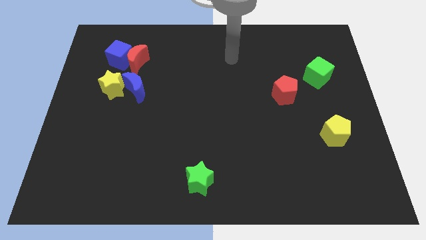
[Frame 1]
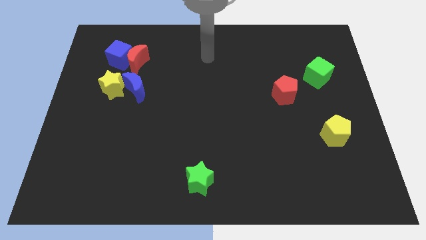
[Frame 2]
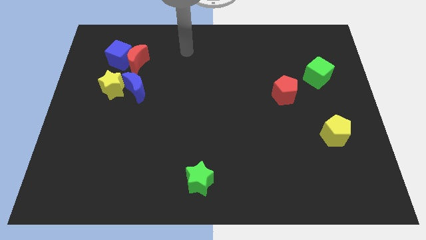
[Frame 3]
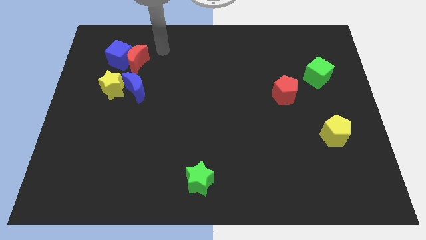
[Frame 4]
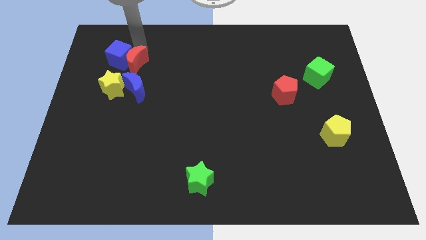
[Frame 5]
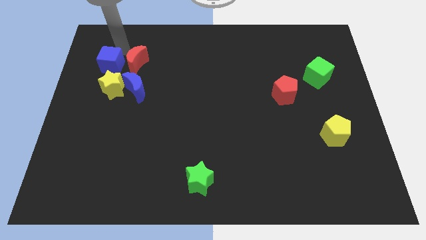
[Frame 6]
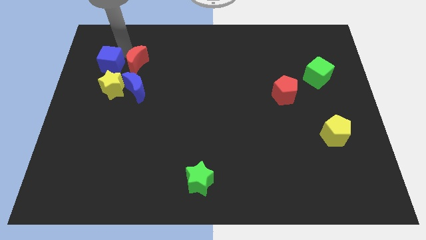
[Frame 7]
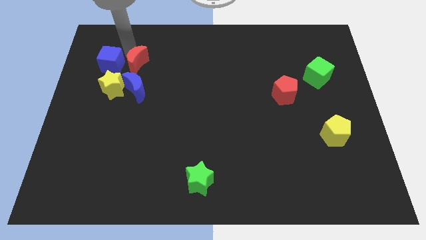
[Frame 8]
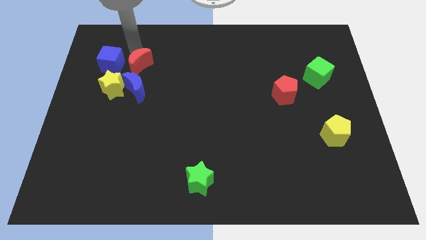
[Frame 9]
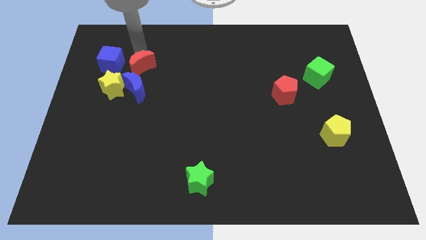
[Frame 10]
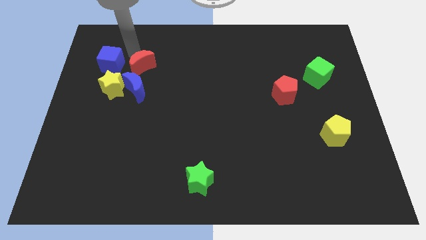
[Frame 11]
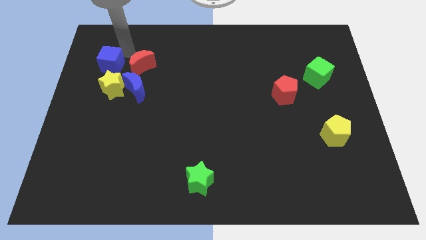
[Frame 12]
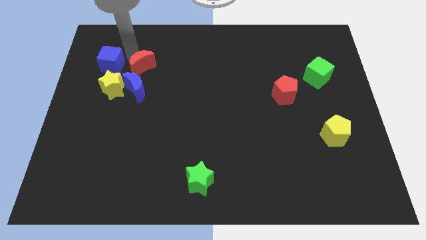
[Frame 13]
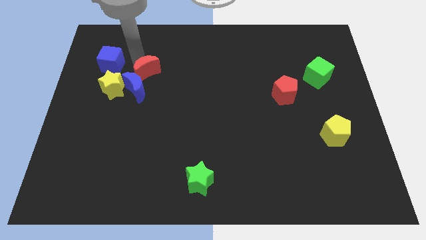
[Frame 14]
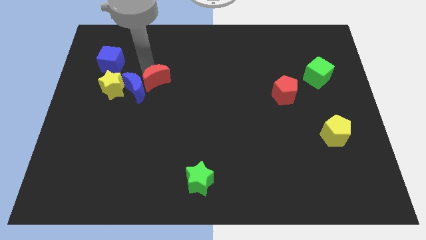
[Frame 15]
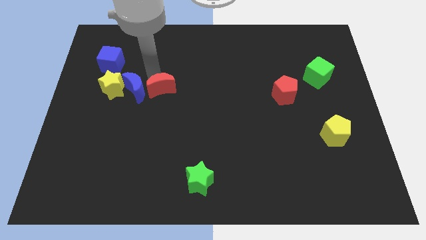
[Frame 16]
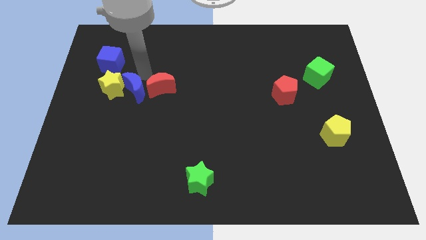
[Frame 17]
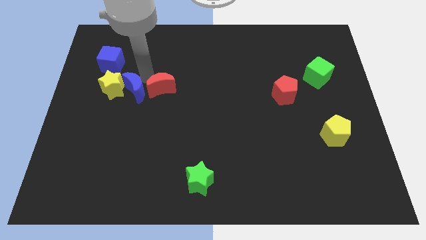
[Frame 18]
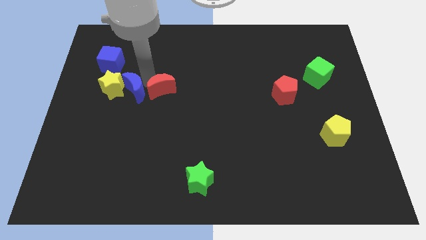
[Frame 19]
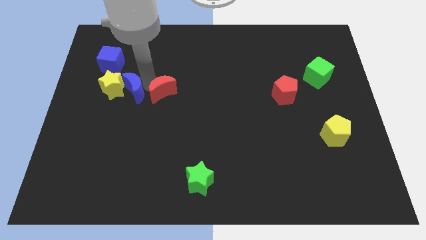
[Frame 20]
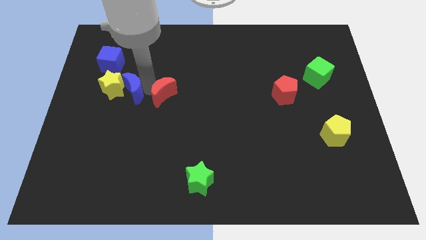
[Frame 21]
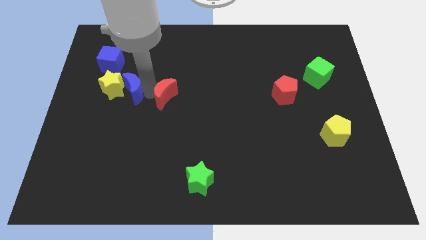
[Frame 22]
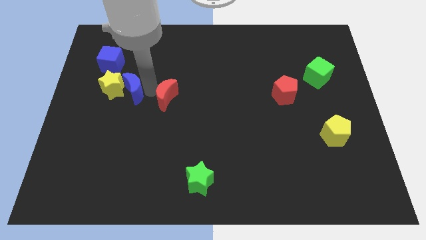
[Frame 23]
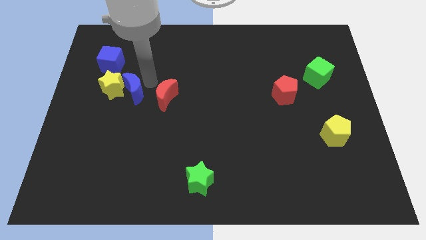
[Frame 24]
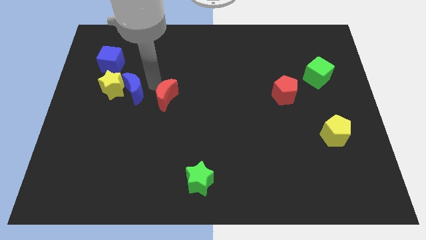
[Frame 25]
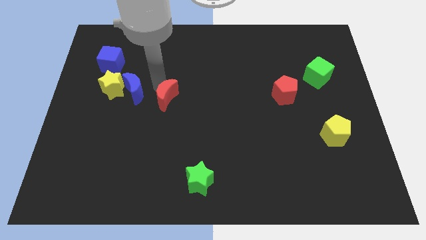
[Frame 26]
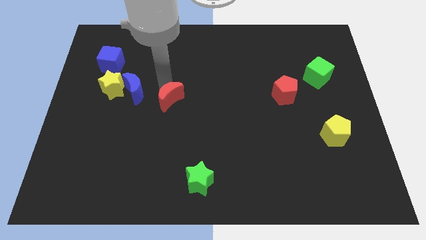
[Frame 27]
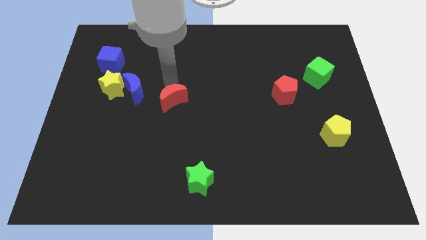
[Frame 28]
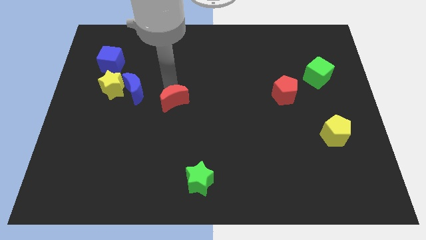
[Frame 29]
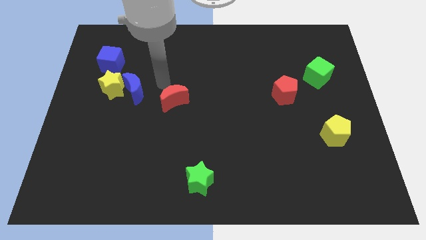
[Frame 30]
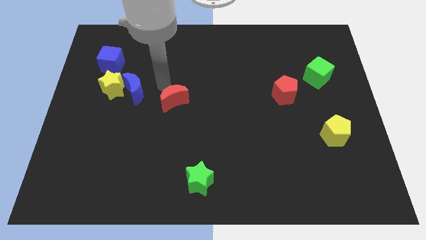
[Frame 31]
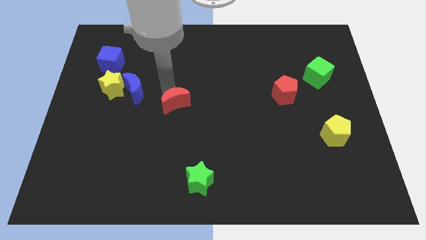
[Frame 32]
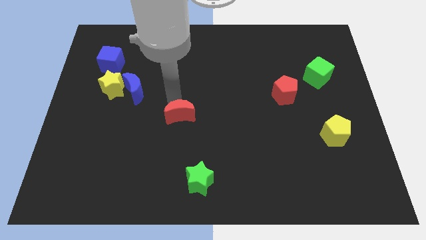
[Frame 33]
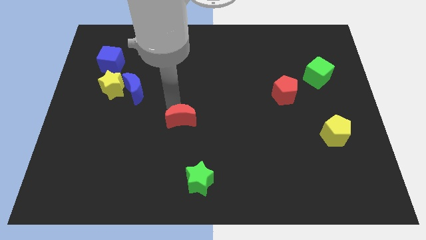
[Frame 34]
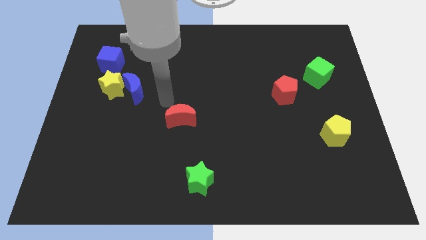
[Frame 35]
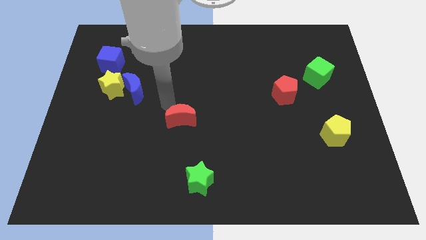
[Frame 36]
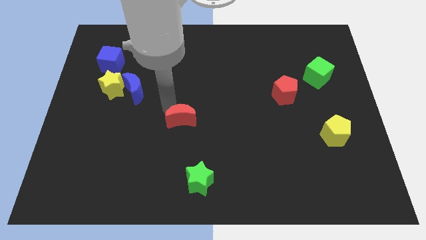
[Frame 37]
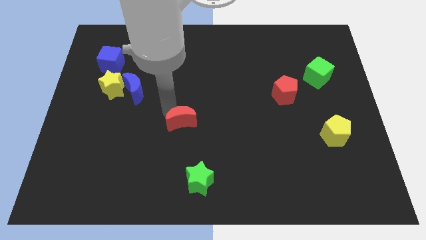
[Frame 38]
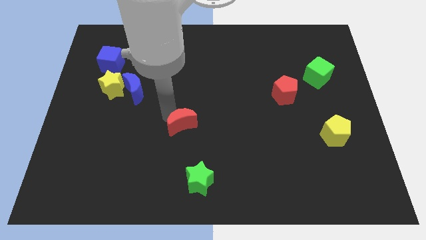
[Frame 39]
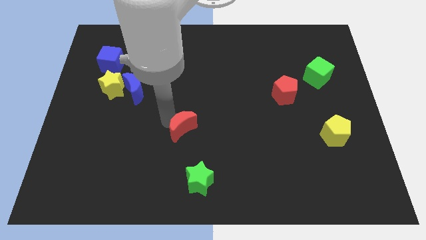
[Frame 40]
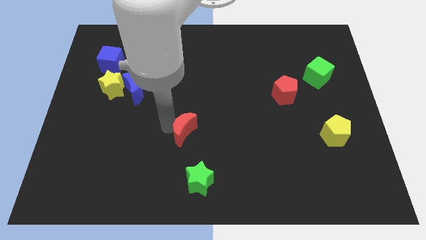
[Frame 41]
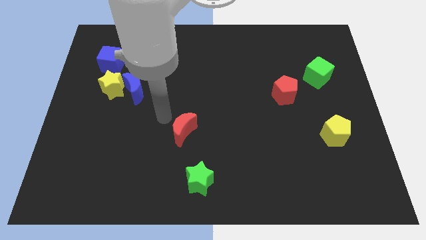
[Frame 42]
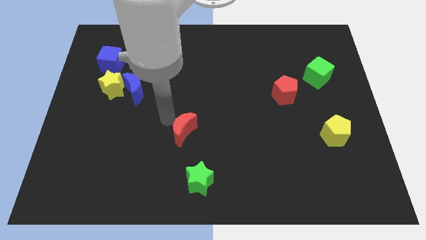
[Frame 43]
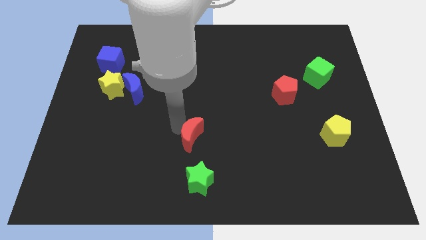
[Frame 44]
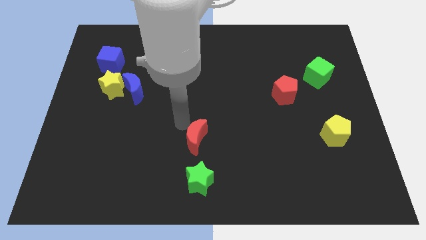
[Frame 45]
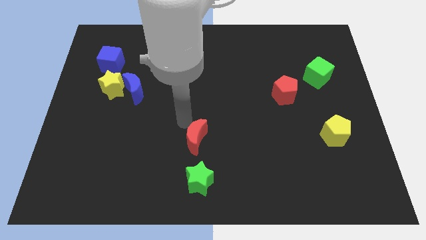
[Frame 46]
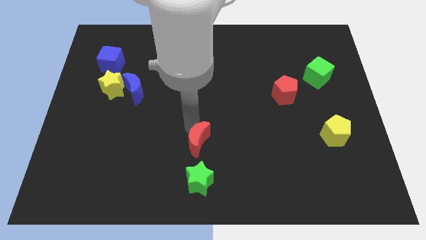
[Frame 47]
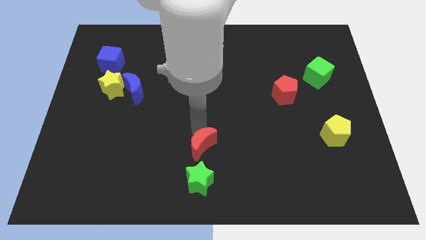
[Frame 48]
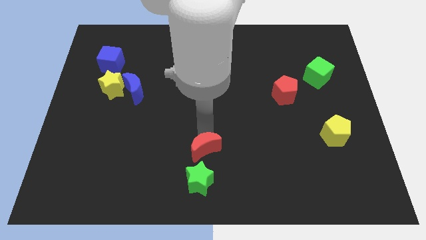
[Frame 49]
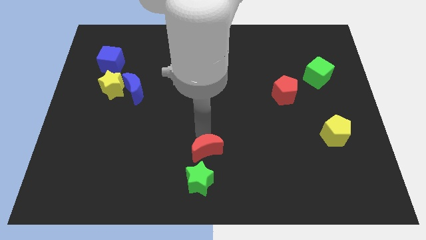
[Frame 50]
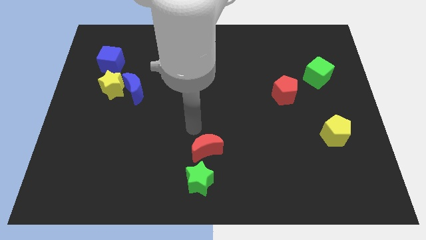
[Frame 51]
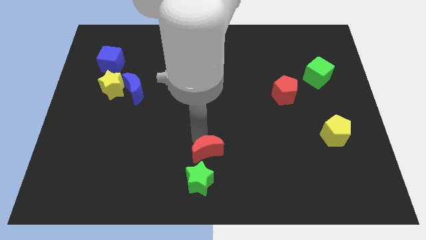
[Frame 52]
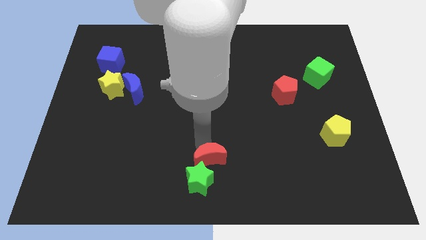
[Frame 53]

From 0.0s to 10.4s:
put the red moon to the bottom side

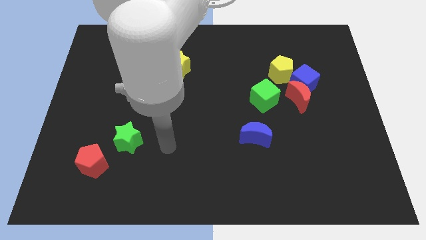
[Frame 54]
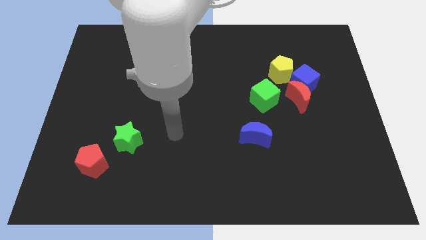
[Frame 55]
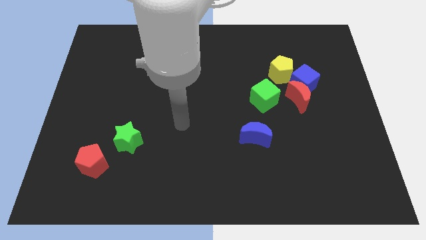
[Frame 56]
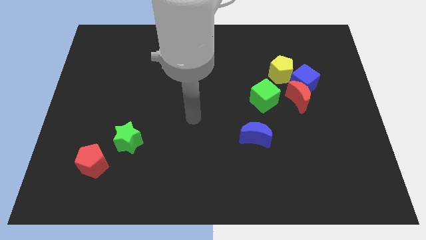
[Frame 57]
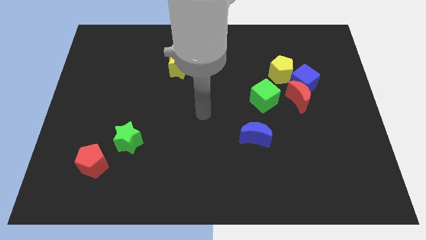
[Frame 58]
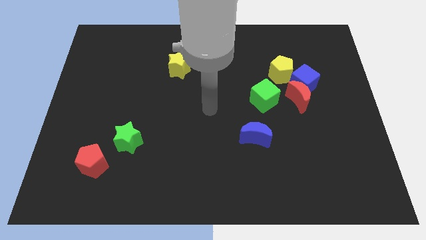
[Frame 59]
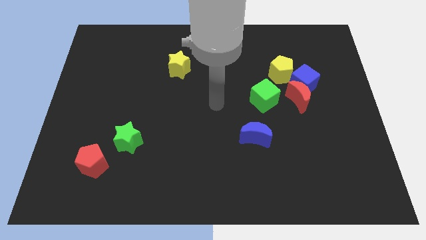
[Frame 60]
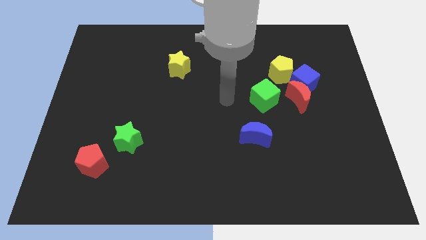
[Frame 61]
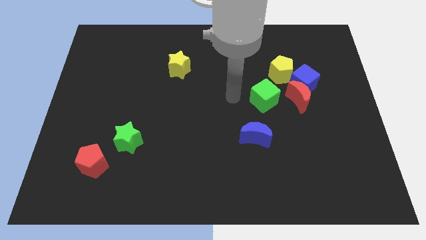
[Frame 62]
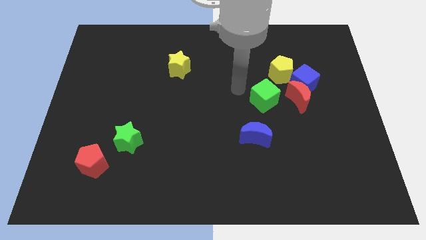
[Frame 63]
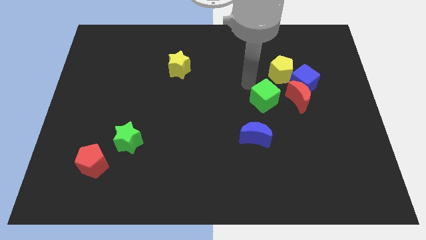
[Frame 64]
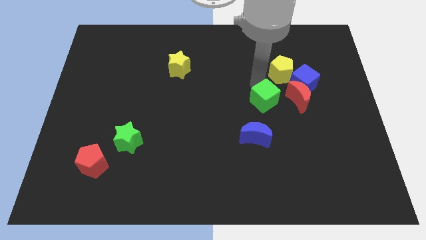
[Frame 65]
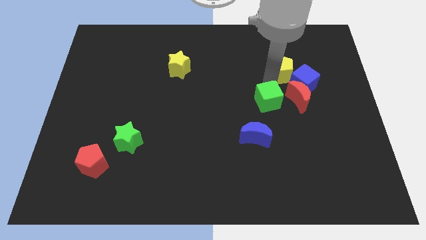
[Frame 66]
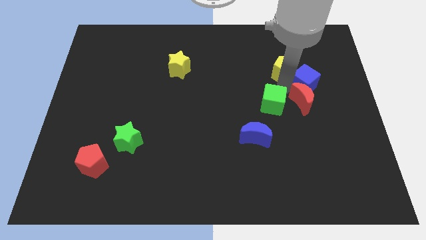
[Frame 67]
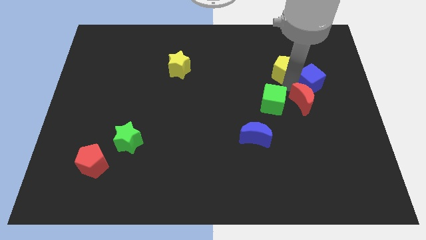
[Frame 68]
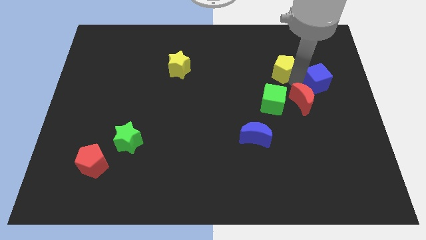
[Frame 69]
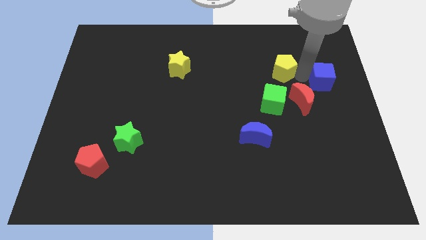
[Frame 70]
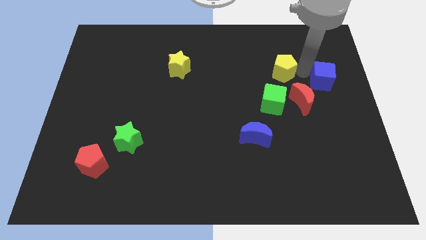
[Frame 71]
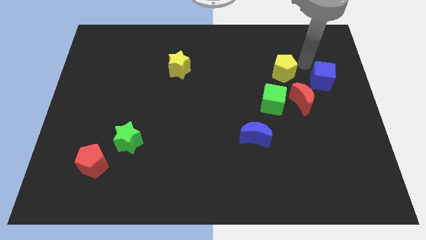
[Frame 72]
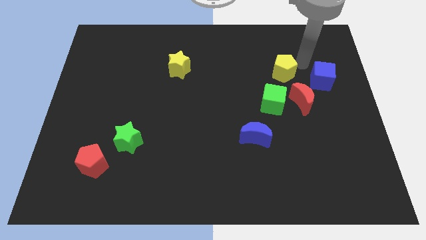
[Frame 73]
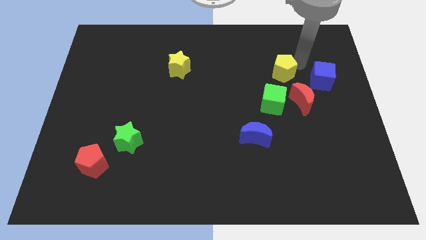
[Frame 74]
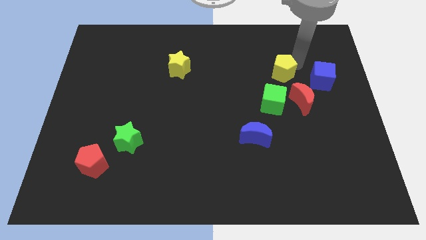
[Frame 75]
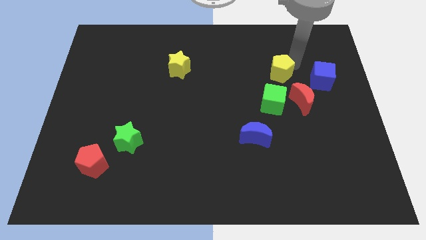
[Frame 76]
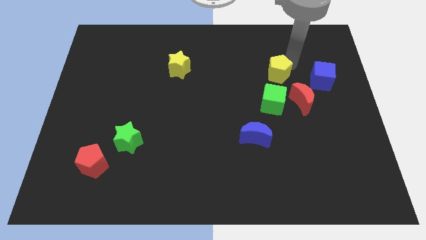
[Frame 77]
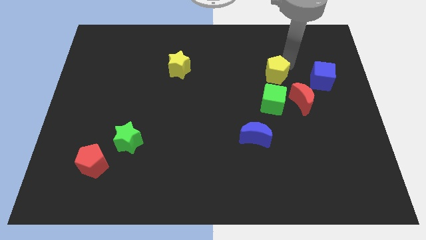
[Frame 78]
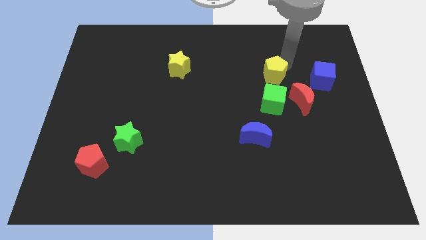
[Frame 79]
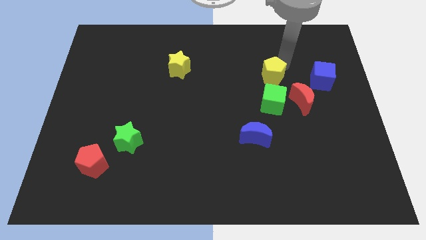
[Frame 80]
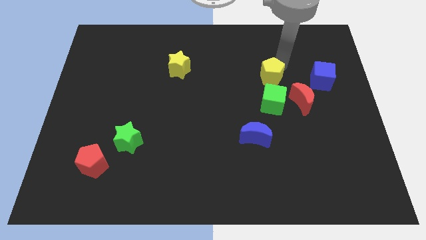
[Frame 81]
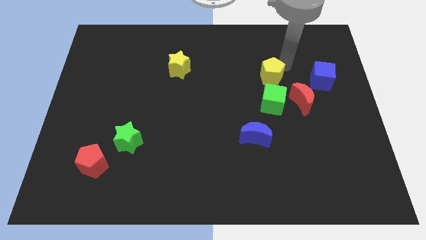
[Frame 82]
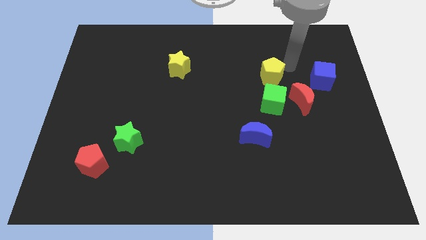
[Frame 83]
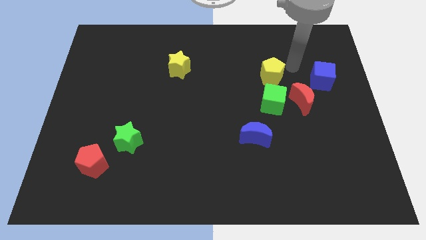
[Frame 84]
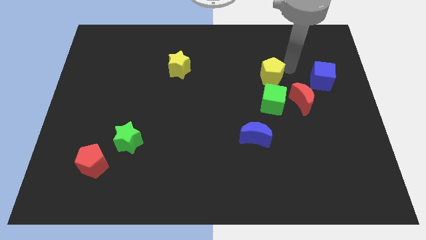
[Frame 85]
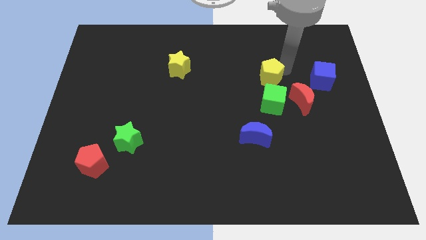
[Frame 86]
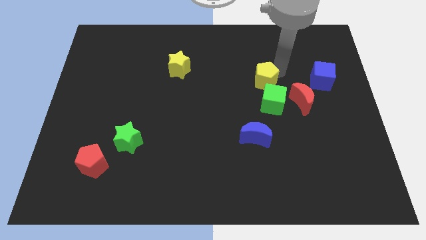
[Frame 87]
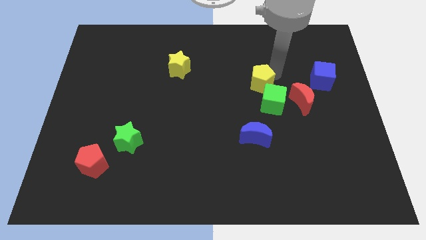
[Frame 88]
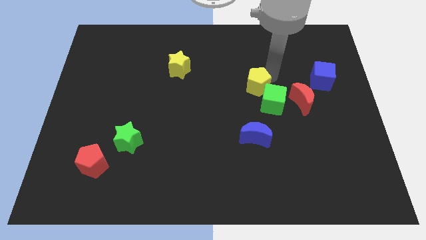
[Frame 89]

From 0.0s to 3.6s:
move the yellow pentagon to the middle of the board
